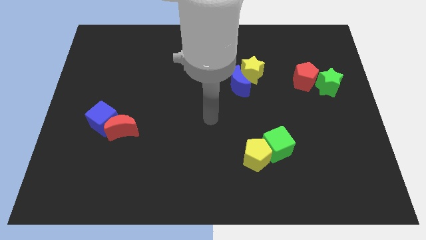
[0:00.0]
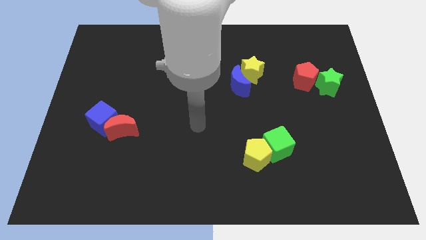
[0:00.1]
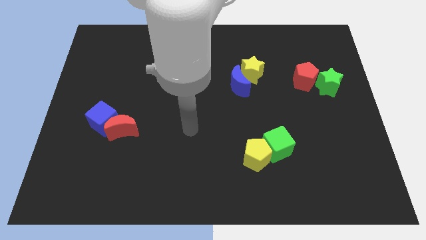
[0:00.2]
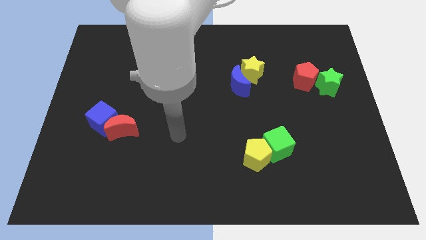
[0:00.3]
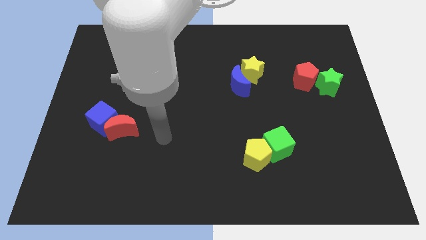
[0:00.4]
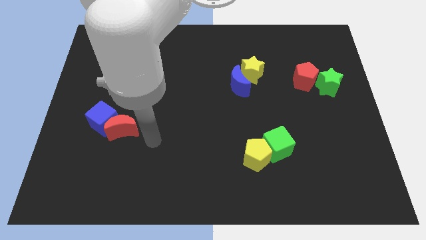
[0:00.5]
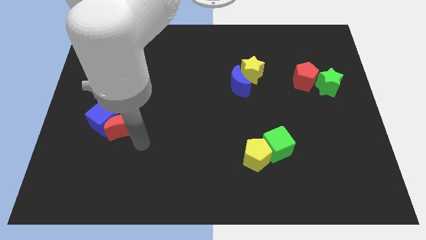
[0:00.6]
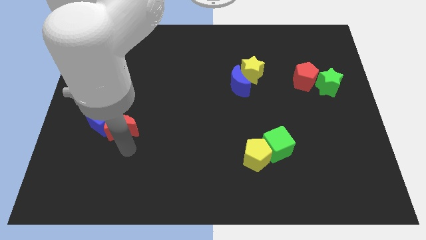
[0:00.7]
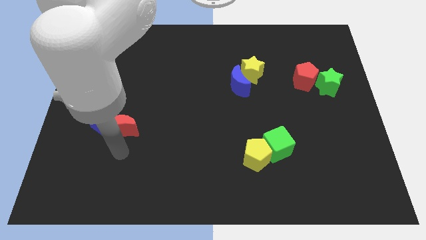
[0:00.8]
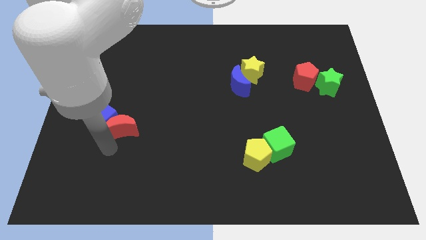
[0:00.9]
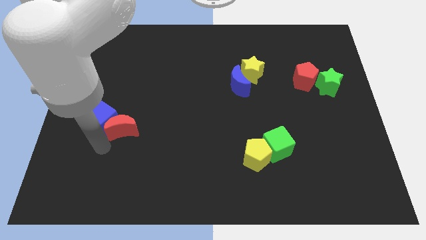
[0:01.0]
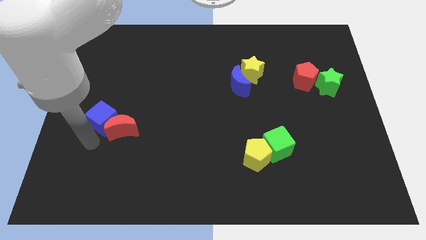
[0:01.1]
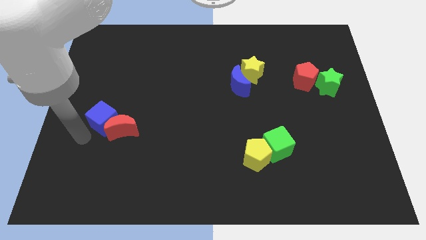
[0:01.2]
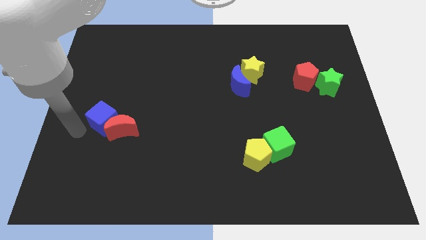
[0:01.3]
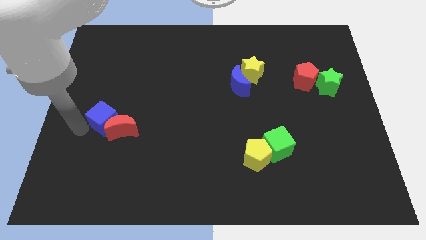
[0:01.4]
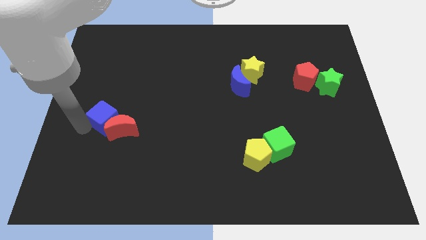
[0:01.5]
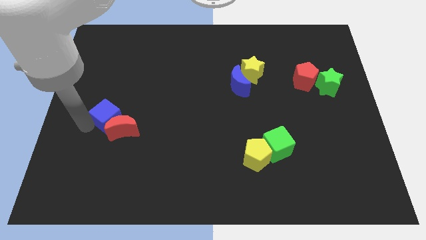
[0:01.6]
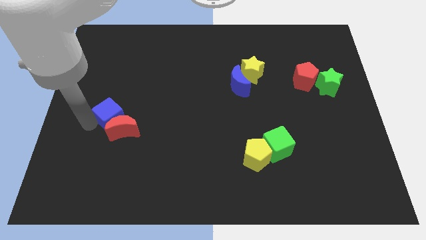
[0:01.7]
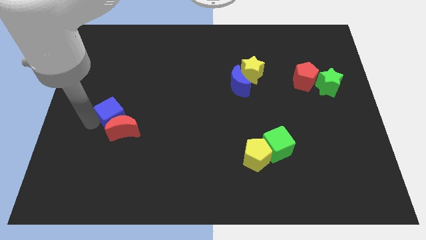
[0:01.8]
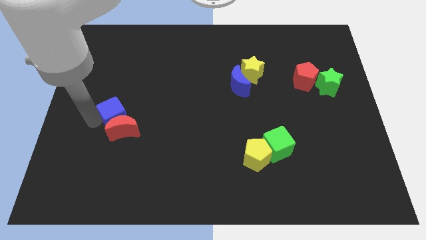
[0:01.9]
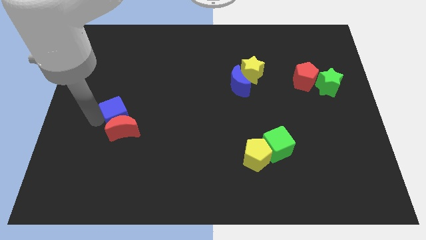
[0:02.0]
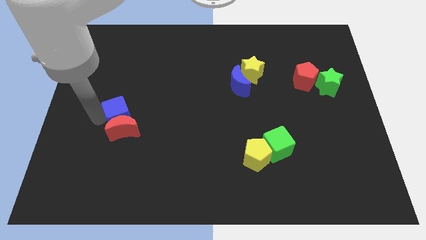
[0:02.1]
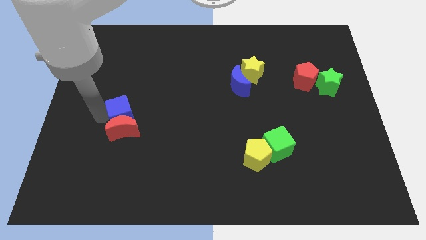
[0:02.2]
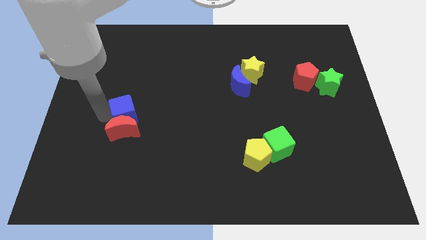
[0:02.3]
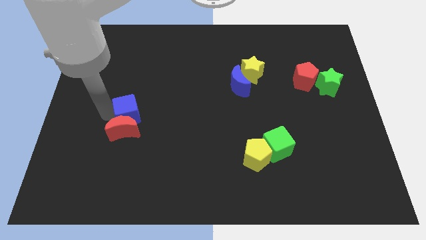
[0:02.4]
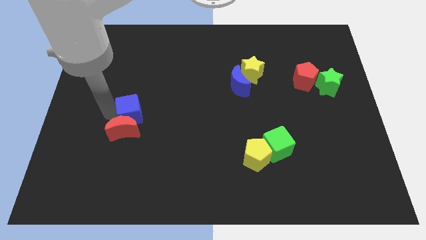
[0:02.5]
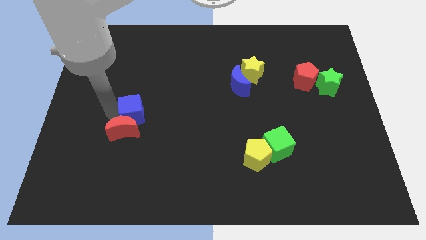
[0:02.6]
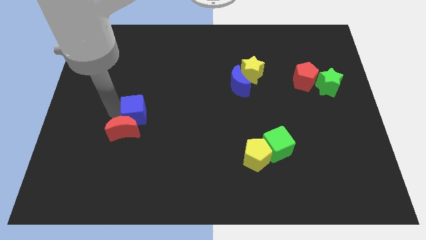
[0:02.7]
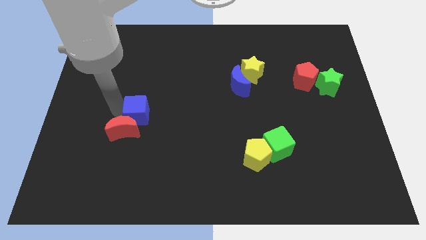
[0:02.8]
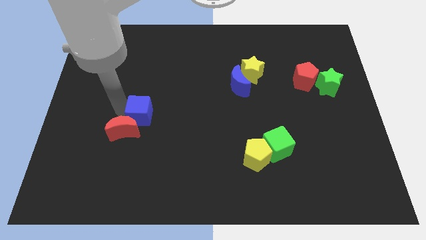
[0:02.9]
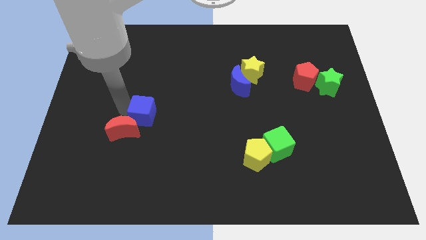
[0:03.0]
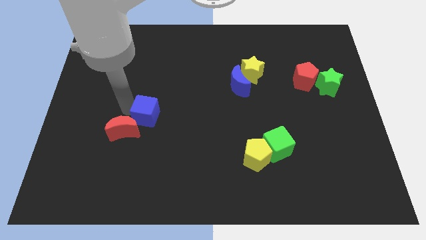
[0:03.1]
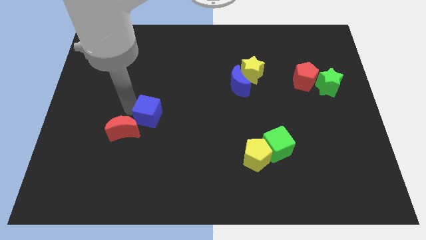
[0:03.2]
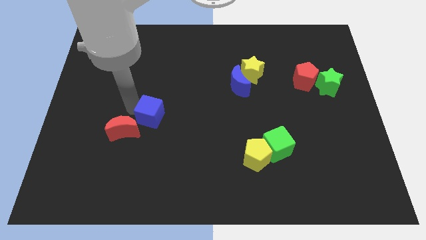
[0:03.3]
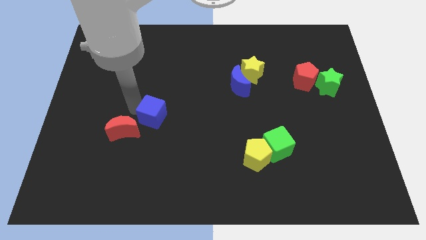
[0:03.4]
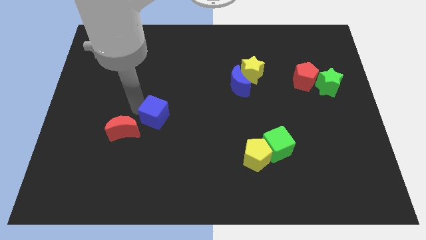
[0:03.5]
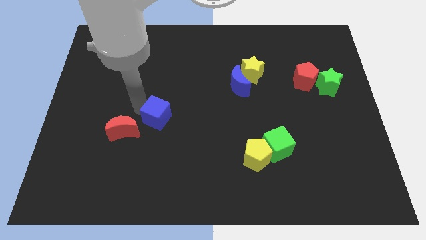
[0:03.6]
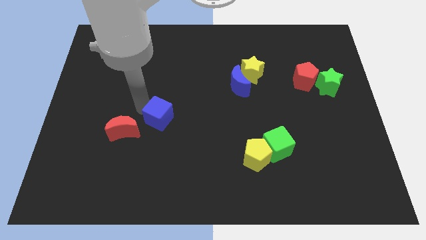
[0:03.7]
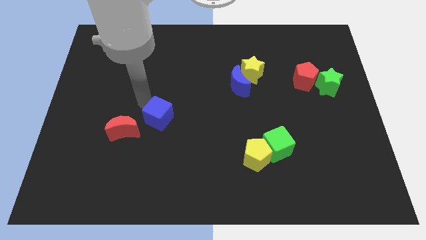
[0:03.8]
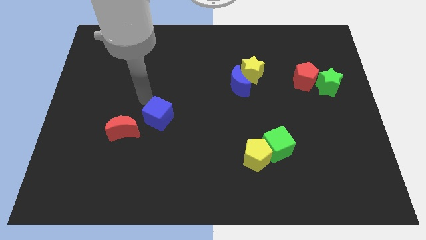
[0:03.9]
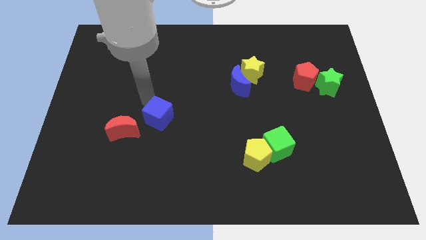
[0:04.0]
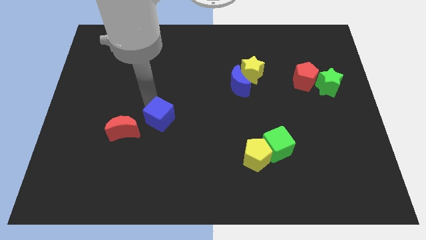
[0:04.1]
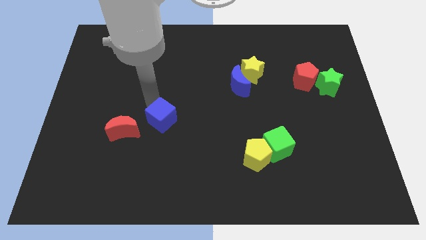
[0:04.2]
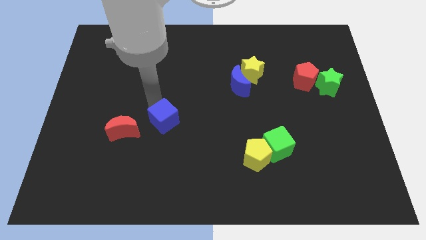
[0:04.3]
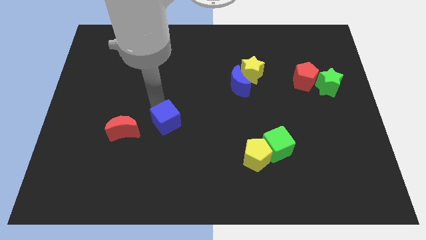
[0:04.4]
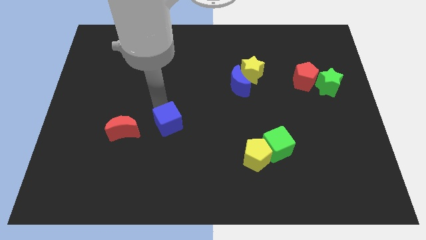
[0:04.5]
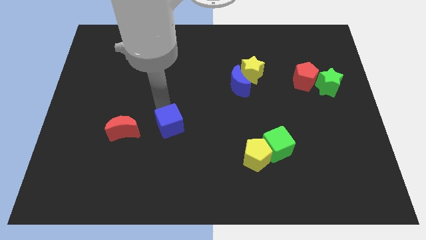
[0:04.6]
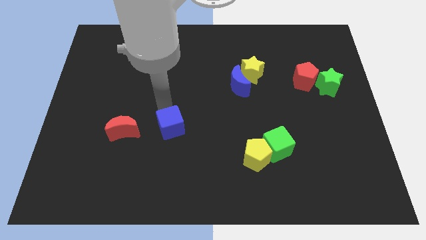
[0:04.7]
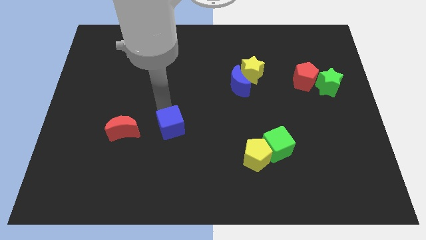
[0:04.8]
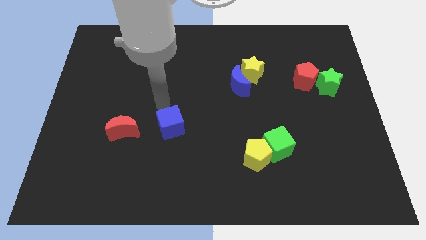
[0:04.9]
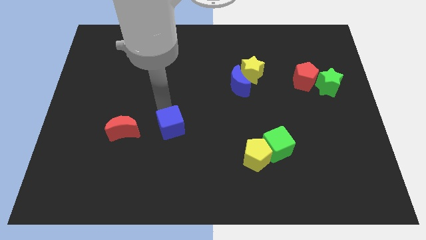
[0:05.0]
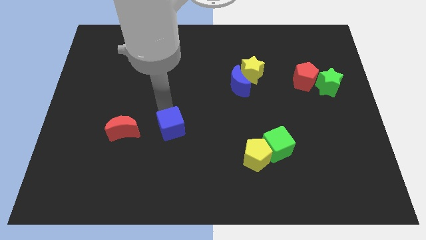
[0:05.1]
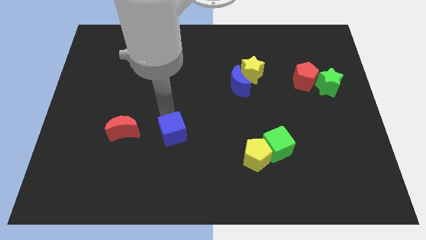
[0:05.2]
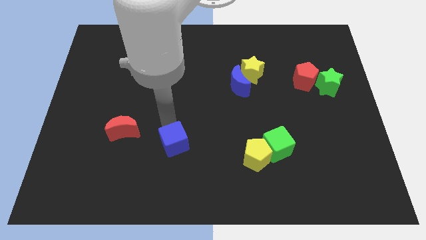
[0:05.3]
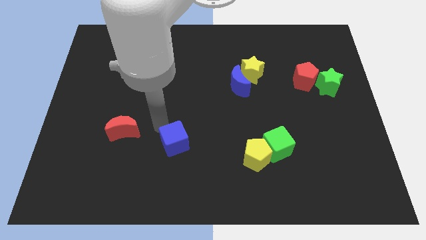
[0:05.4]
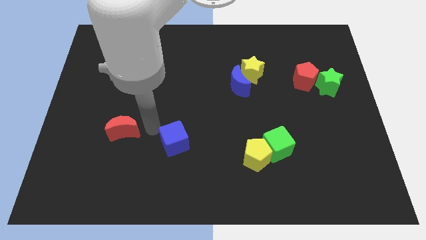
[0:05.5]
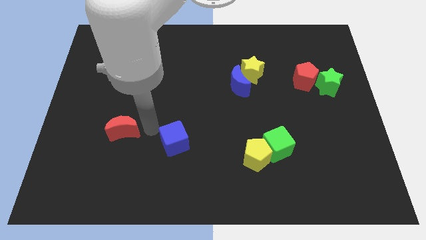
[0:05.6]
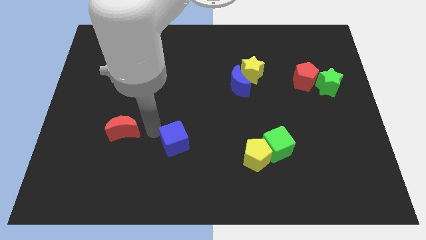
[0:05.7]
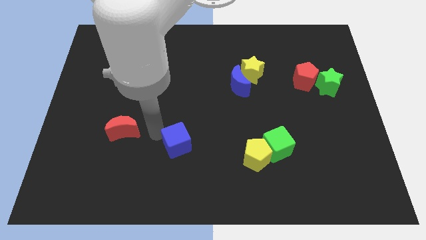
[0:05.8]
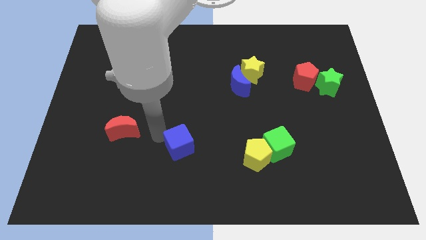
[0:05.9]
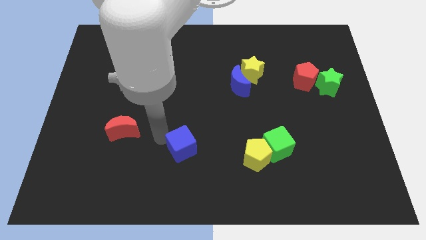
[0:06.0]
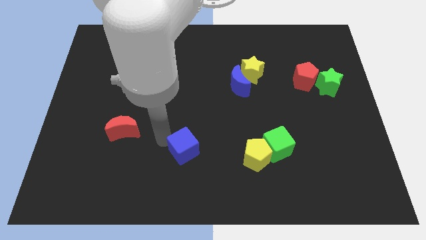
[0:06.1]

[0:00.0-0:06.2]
slide the blue cube to the left side of the yellow pentagon
